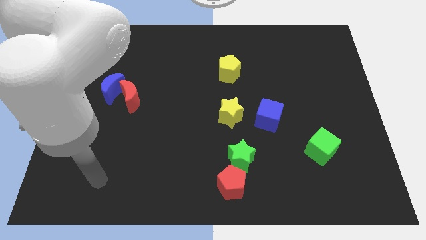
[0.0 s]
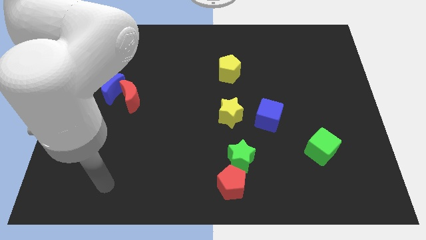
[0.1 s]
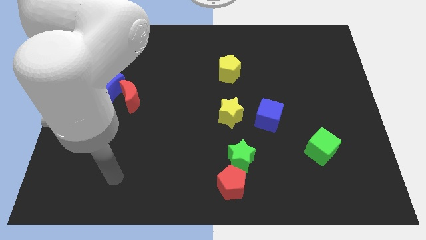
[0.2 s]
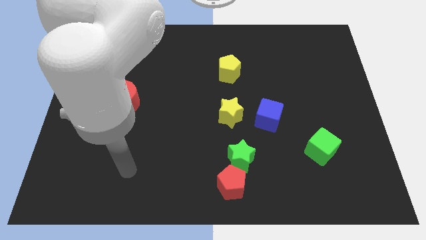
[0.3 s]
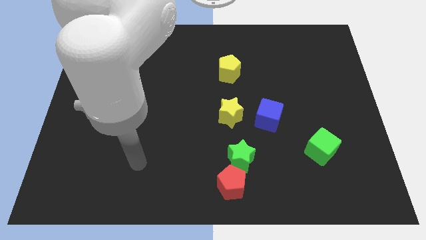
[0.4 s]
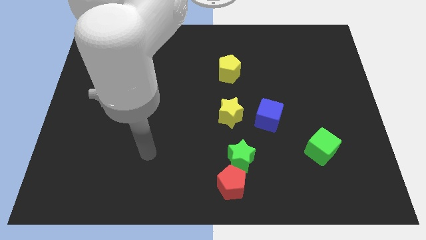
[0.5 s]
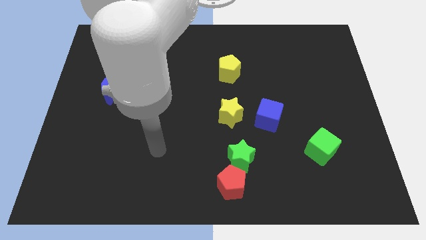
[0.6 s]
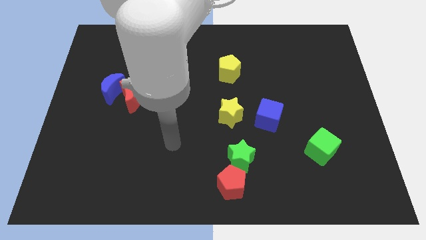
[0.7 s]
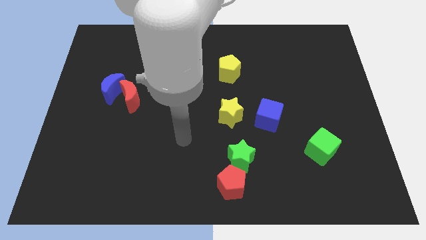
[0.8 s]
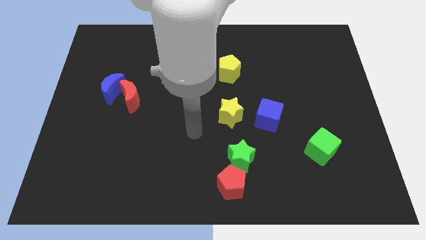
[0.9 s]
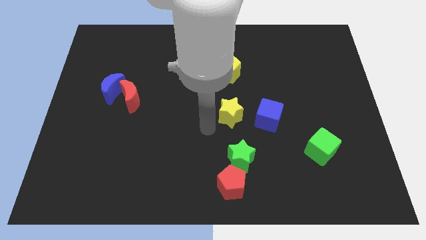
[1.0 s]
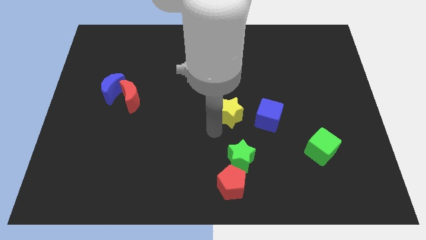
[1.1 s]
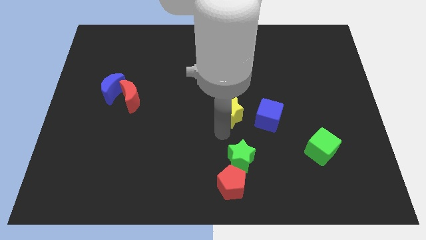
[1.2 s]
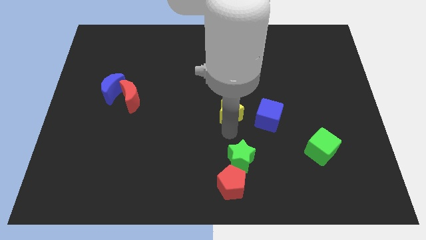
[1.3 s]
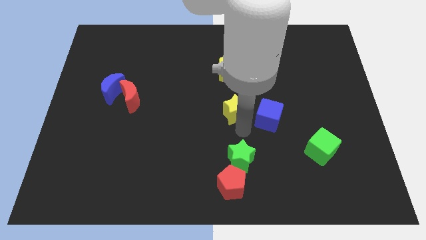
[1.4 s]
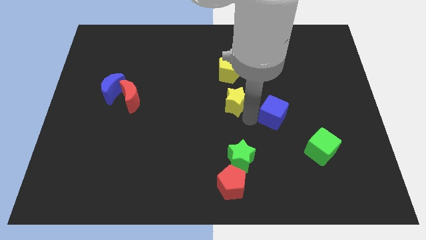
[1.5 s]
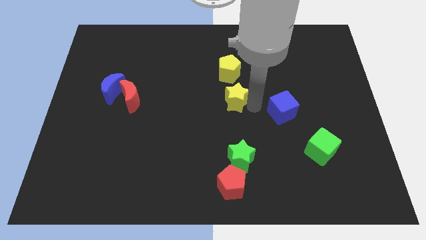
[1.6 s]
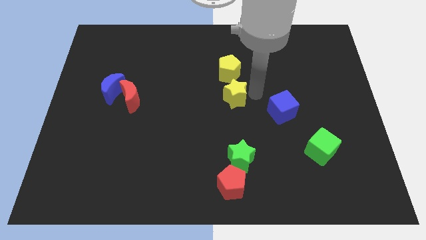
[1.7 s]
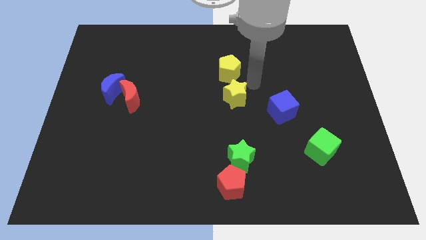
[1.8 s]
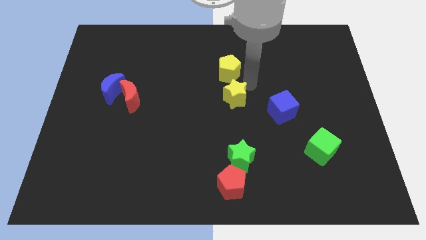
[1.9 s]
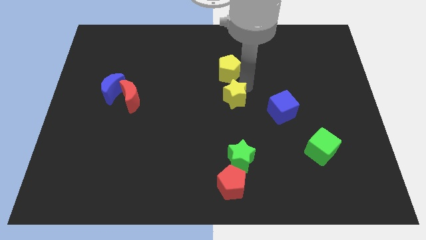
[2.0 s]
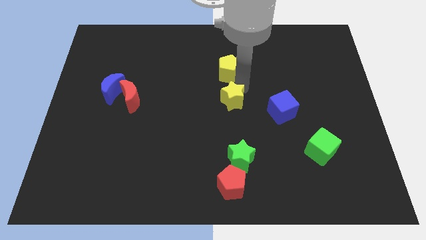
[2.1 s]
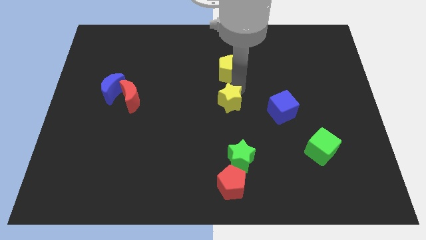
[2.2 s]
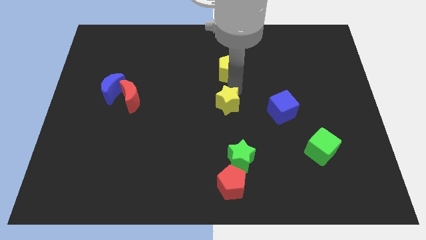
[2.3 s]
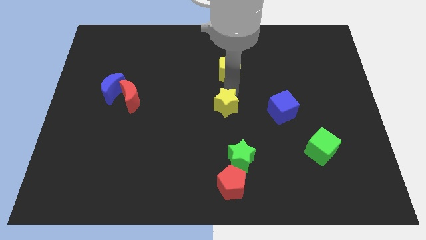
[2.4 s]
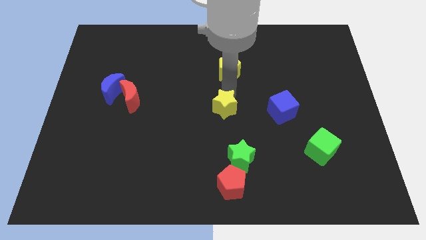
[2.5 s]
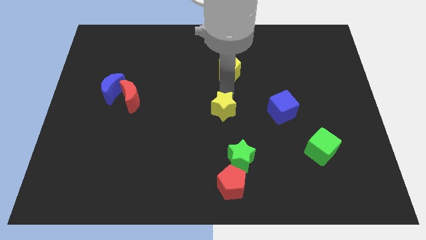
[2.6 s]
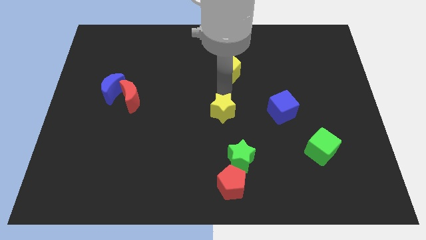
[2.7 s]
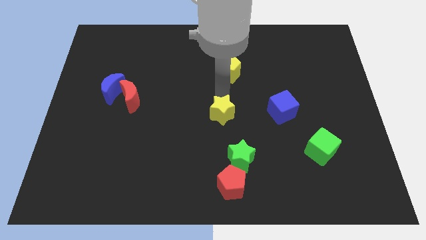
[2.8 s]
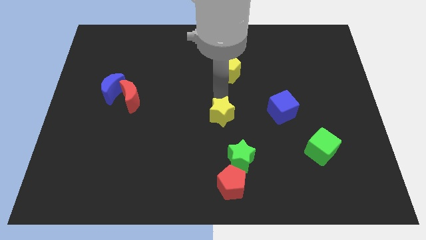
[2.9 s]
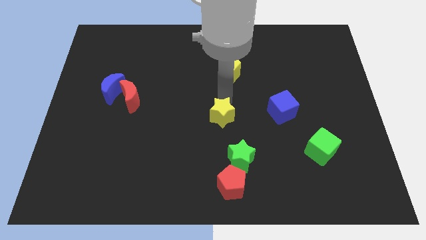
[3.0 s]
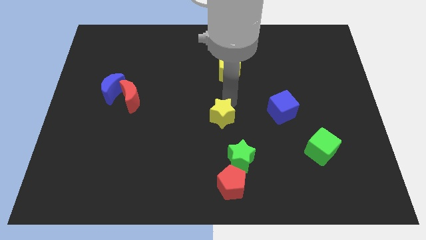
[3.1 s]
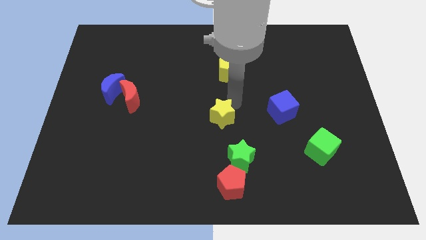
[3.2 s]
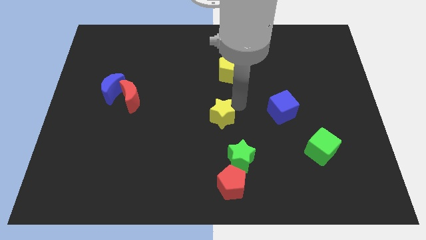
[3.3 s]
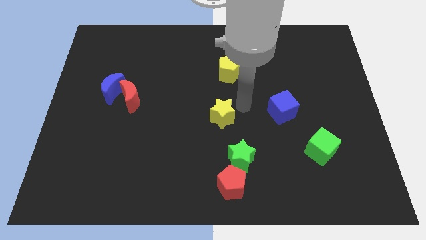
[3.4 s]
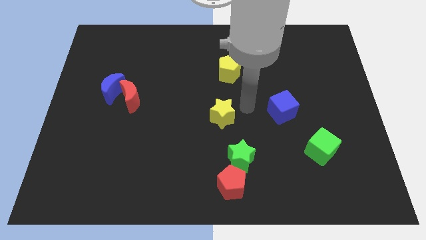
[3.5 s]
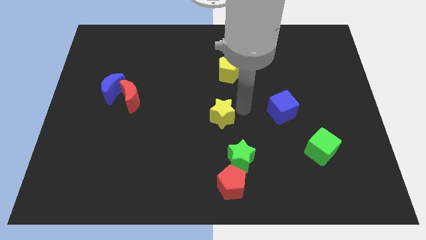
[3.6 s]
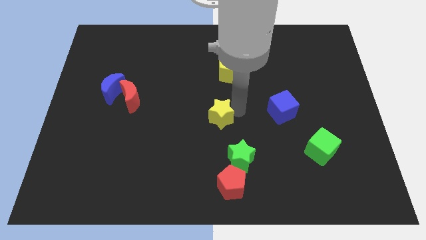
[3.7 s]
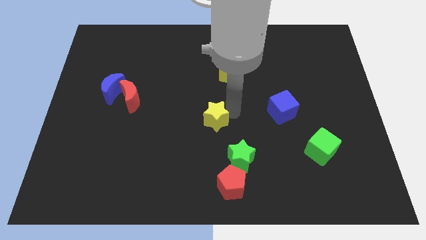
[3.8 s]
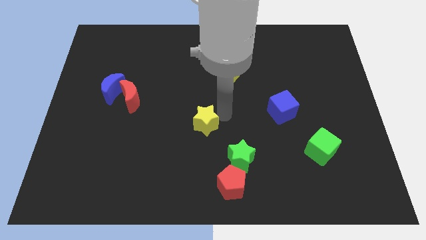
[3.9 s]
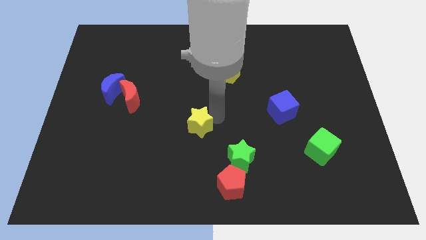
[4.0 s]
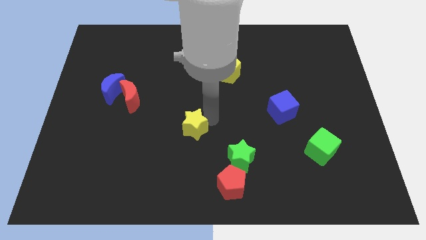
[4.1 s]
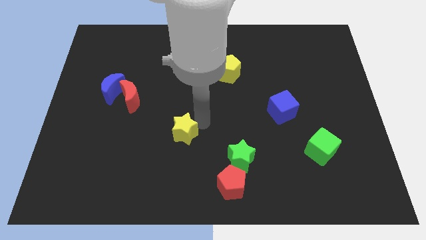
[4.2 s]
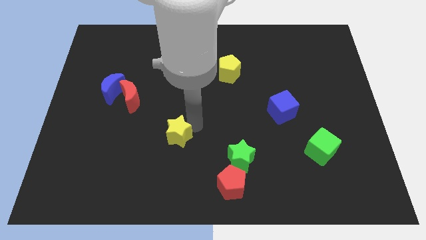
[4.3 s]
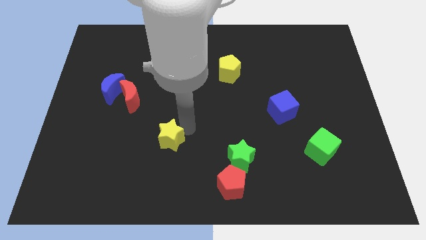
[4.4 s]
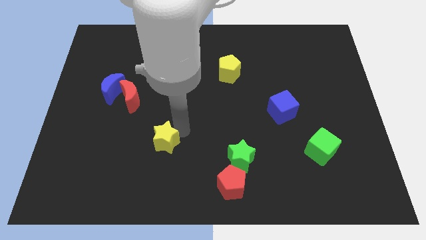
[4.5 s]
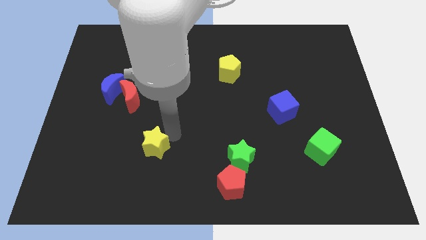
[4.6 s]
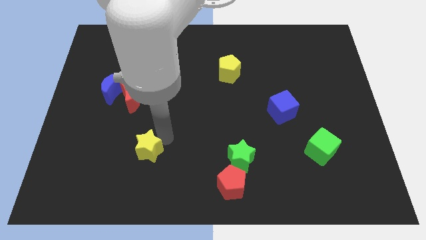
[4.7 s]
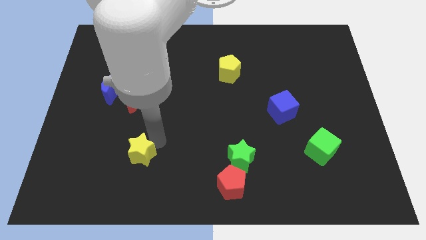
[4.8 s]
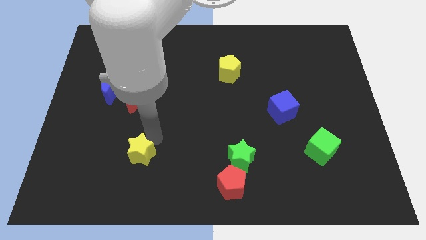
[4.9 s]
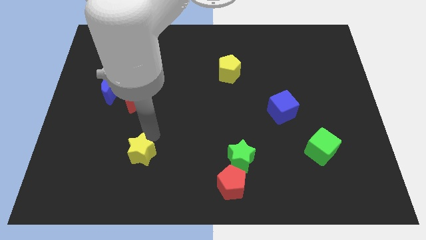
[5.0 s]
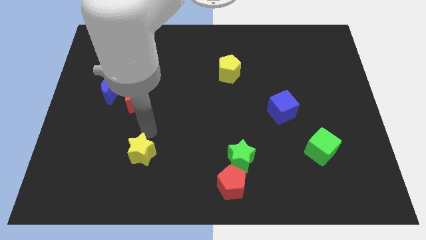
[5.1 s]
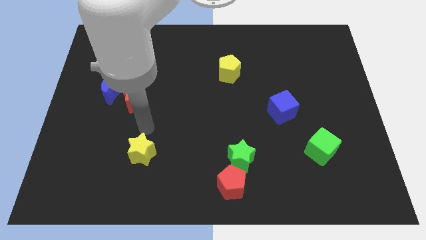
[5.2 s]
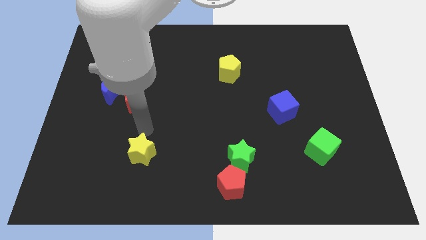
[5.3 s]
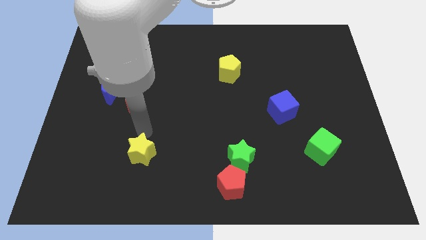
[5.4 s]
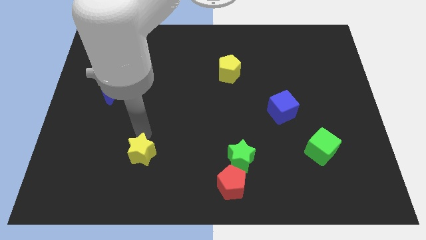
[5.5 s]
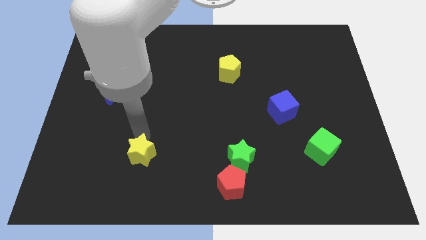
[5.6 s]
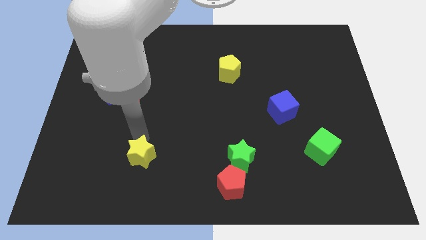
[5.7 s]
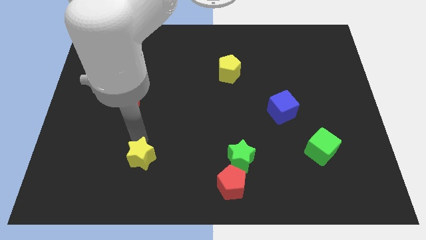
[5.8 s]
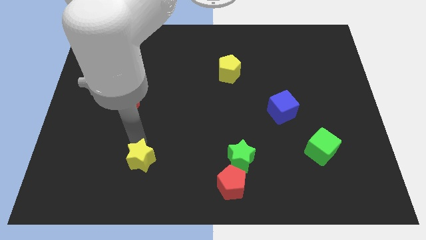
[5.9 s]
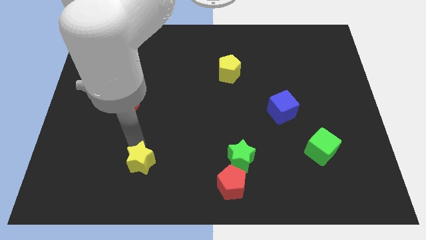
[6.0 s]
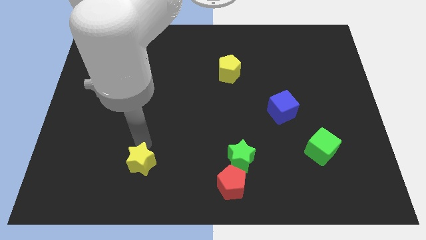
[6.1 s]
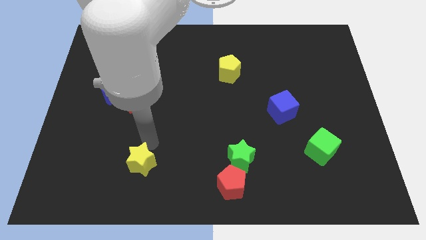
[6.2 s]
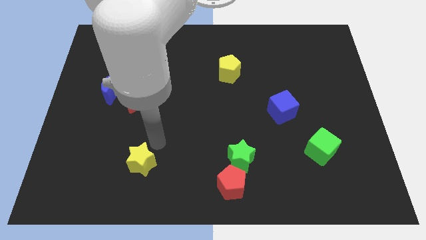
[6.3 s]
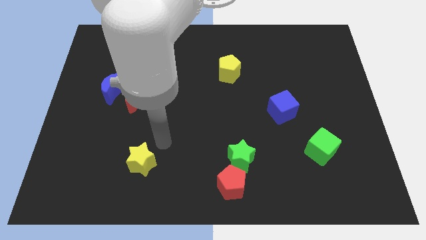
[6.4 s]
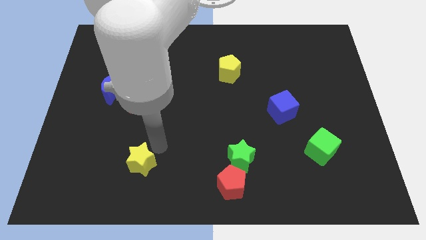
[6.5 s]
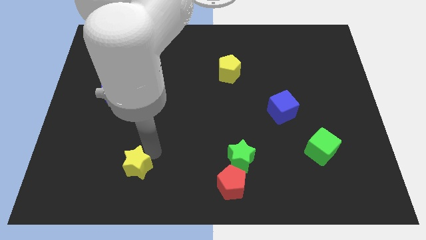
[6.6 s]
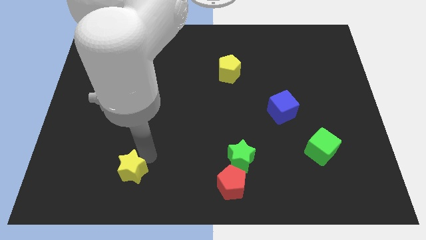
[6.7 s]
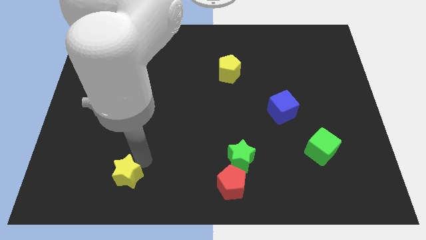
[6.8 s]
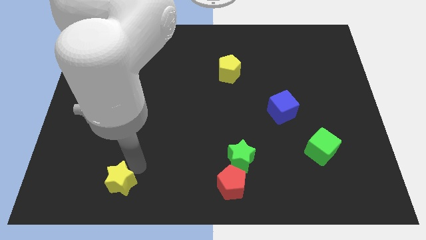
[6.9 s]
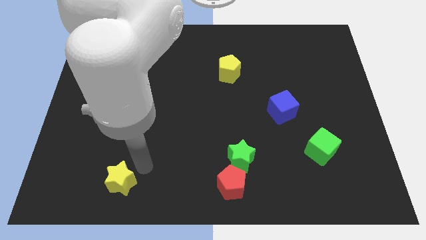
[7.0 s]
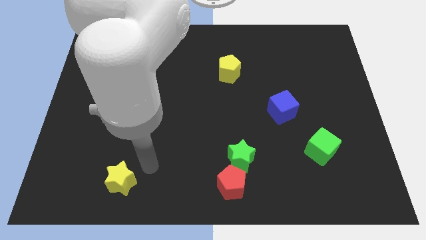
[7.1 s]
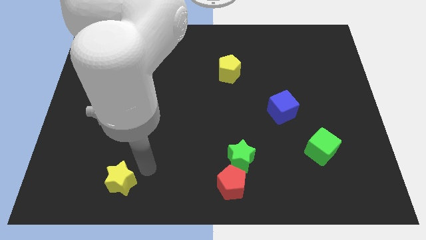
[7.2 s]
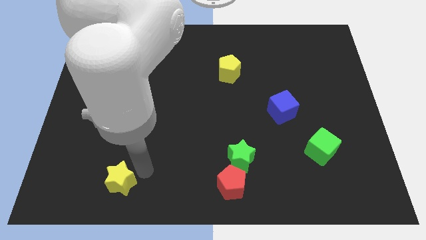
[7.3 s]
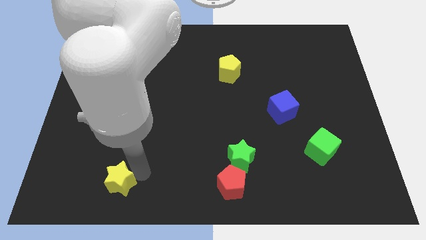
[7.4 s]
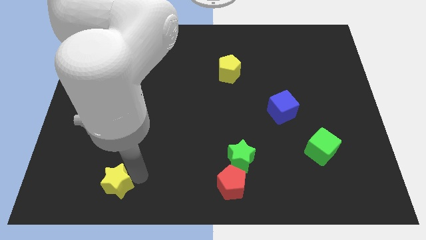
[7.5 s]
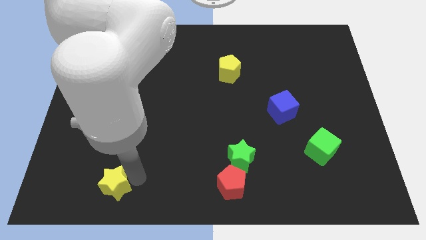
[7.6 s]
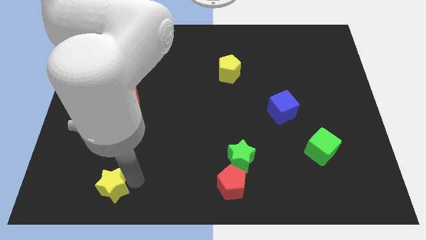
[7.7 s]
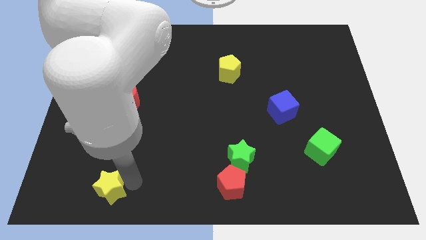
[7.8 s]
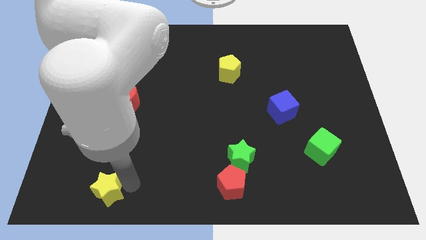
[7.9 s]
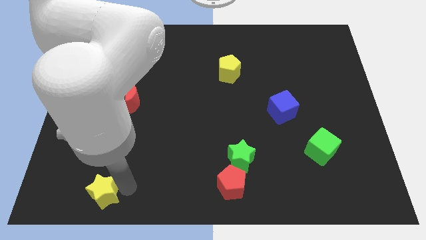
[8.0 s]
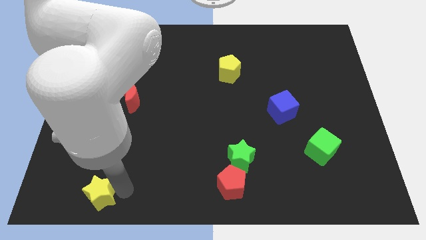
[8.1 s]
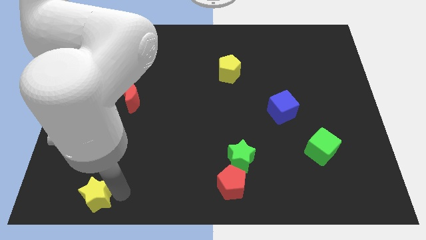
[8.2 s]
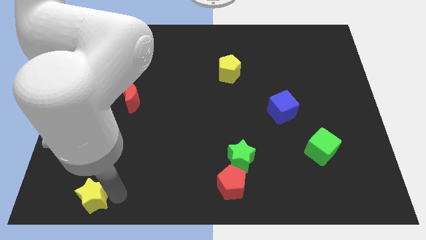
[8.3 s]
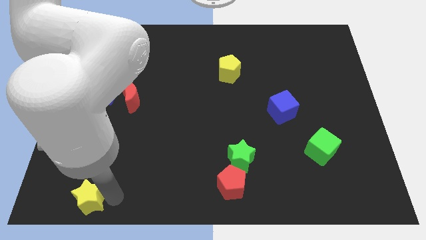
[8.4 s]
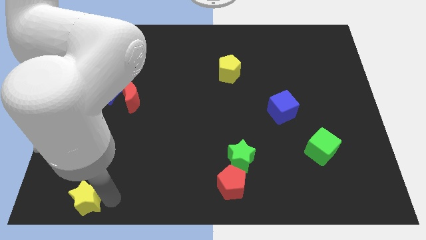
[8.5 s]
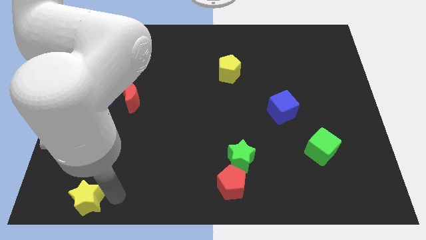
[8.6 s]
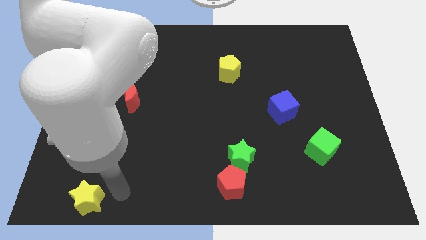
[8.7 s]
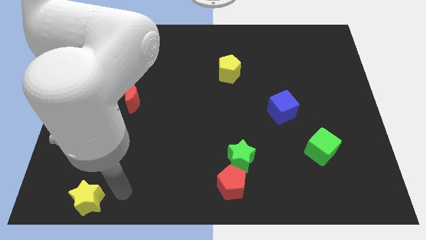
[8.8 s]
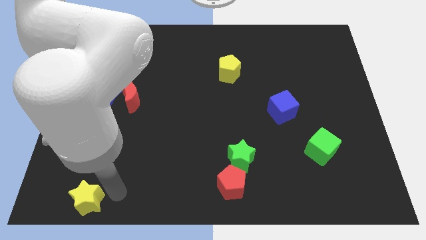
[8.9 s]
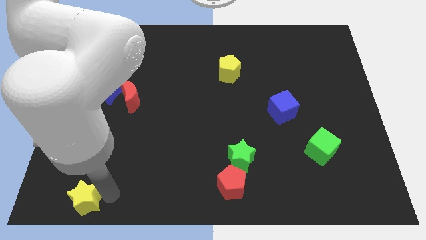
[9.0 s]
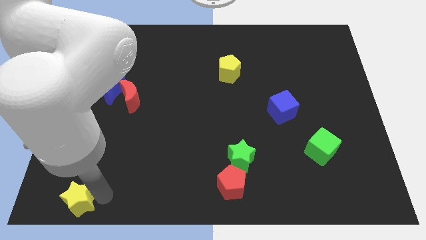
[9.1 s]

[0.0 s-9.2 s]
put the yellow star to the bottom left corner
